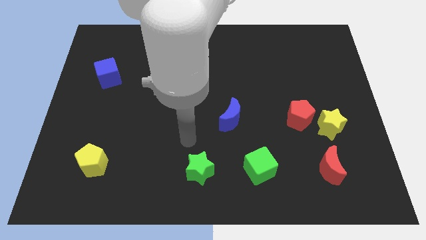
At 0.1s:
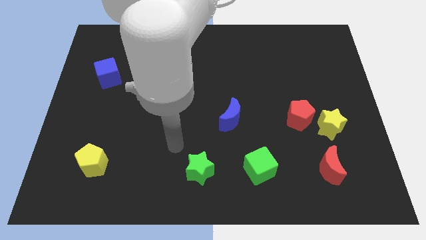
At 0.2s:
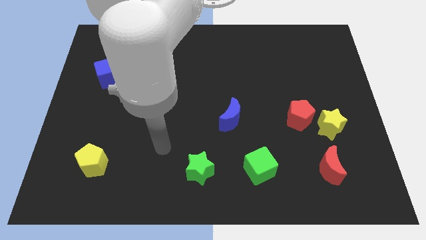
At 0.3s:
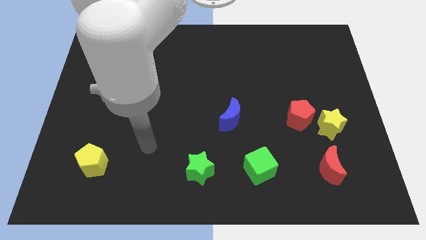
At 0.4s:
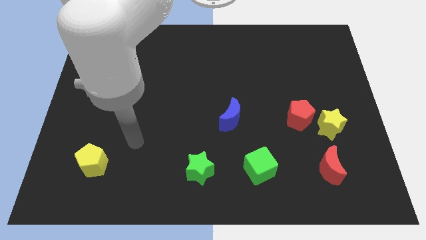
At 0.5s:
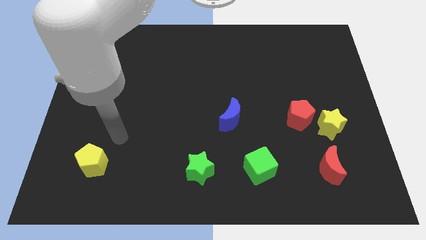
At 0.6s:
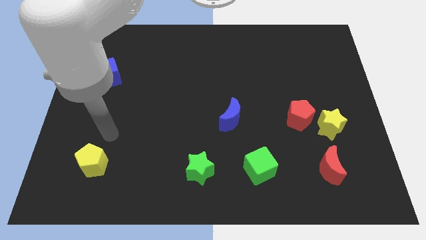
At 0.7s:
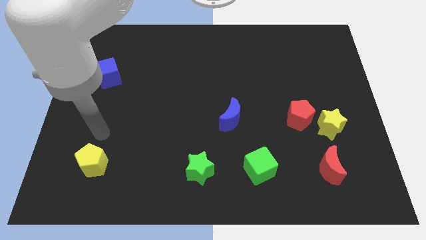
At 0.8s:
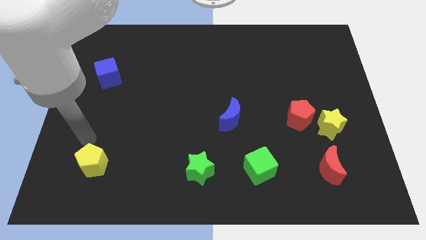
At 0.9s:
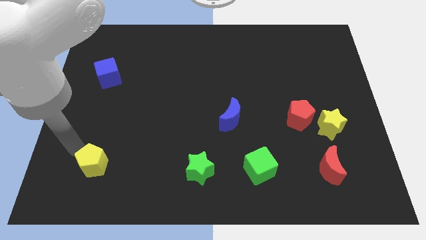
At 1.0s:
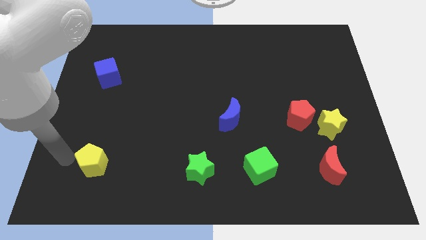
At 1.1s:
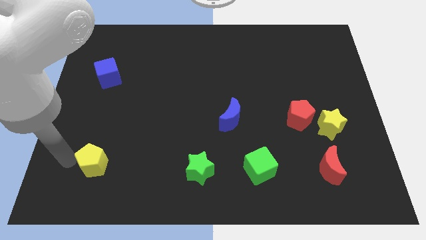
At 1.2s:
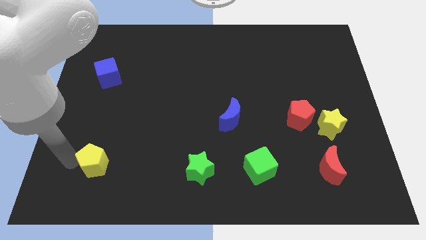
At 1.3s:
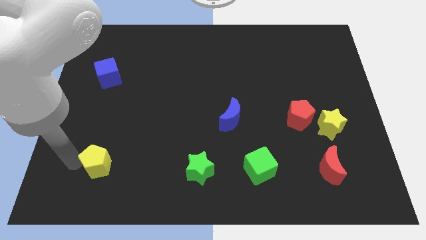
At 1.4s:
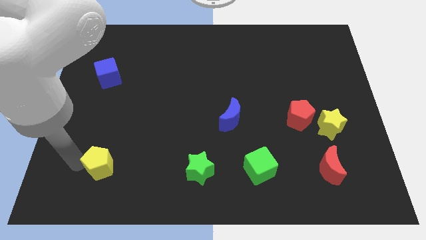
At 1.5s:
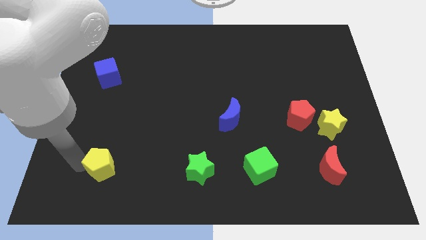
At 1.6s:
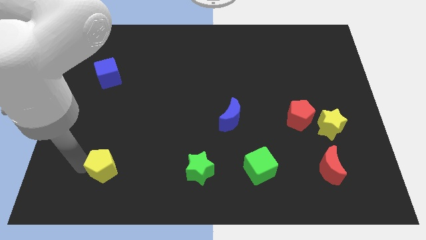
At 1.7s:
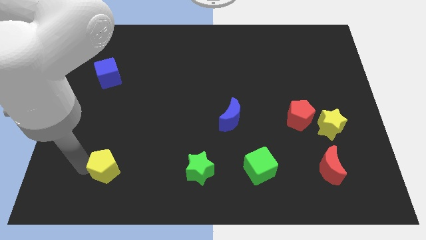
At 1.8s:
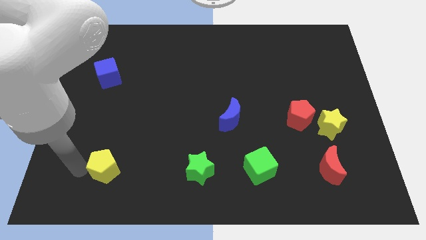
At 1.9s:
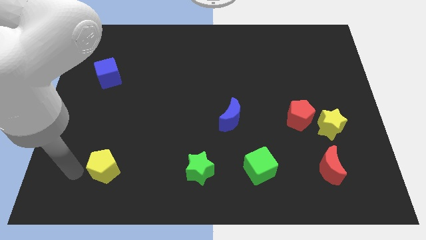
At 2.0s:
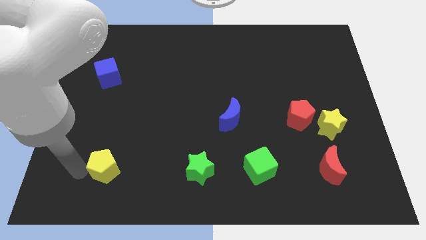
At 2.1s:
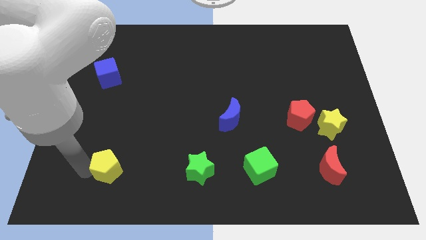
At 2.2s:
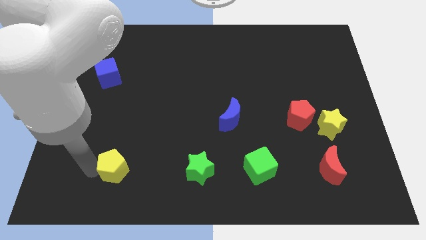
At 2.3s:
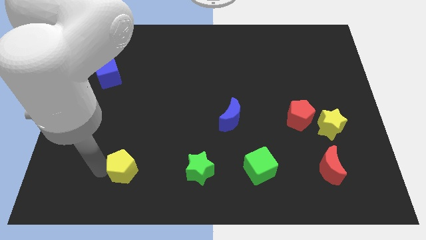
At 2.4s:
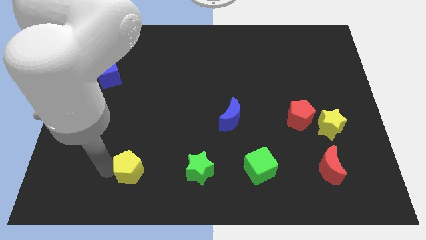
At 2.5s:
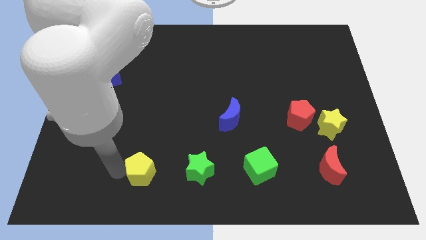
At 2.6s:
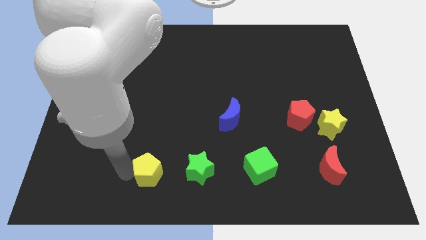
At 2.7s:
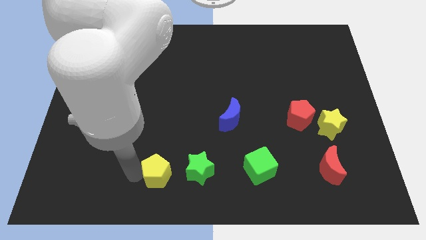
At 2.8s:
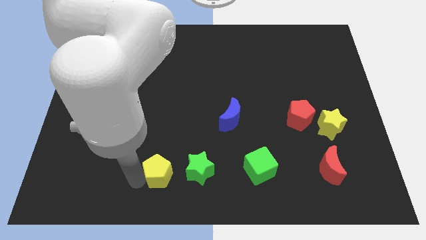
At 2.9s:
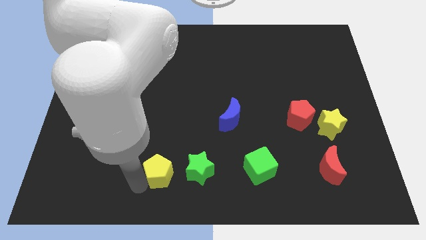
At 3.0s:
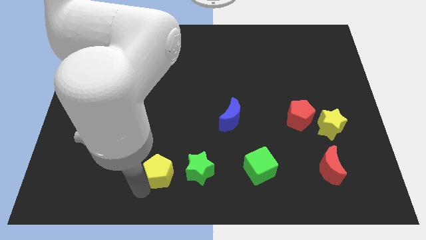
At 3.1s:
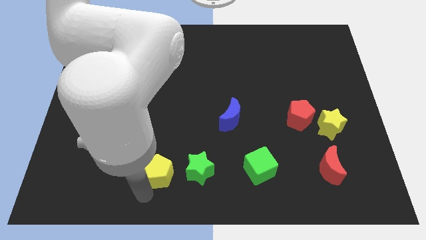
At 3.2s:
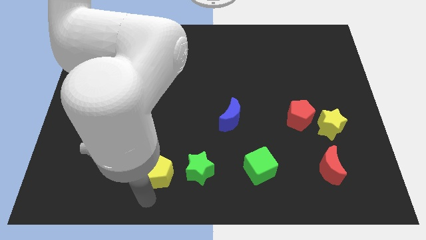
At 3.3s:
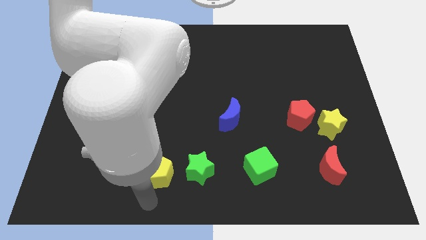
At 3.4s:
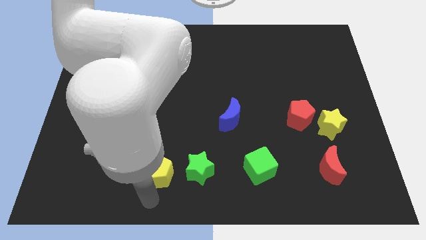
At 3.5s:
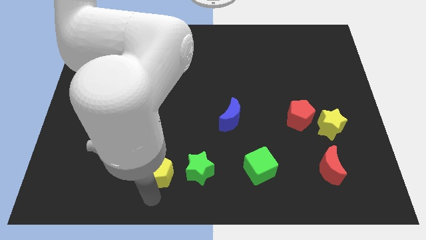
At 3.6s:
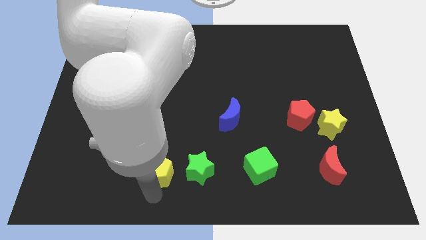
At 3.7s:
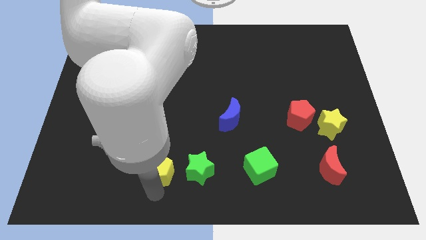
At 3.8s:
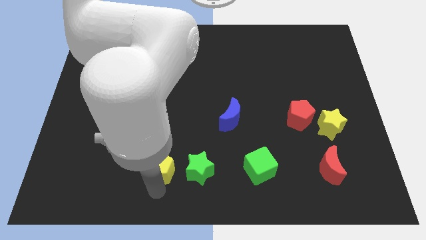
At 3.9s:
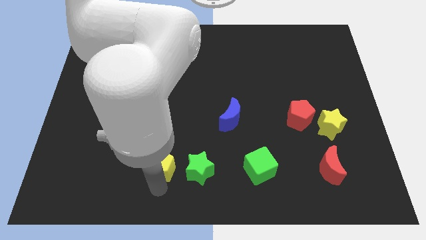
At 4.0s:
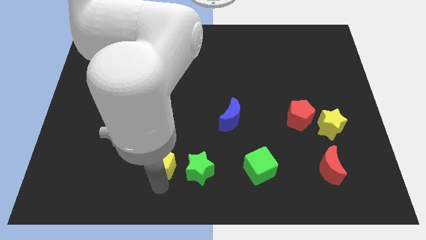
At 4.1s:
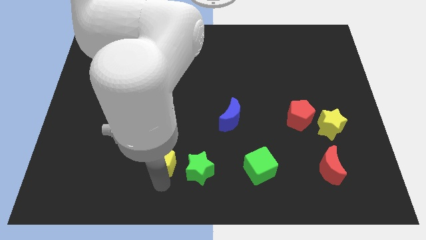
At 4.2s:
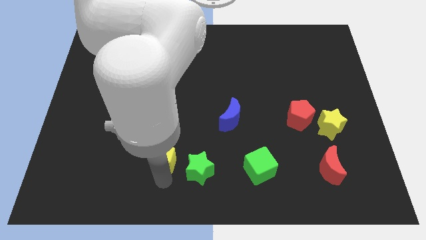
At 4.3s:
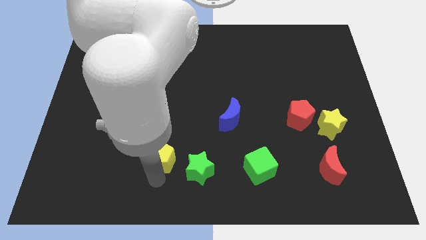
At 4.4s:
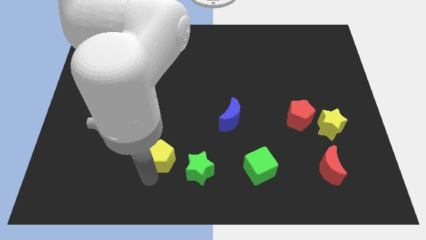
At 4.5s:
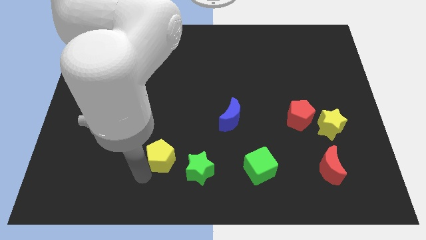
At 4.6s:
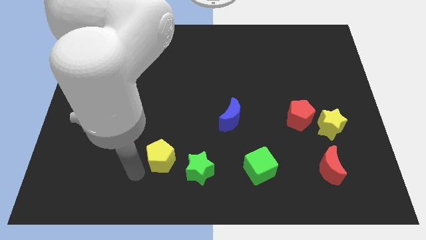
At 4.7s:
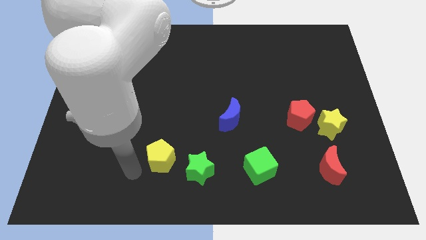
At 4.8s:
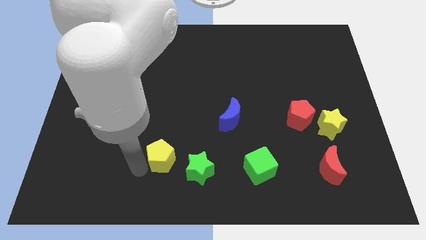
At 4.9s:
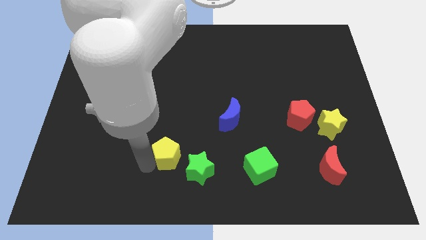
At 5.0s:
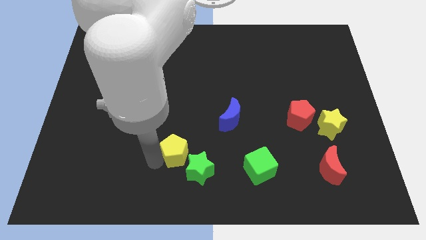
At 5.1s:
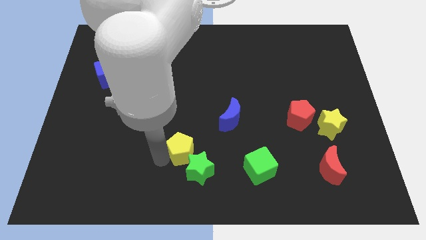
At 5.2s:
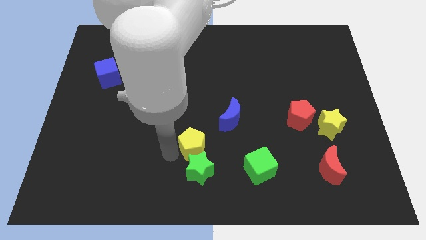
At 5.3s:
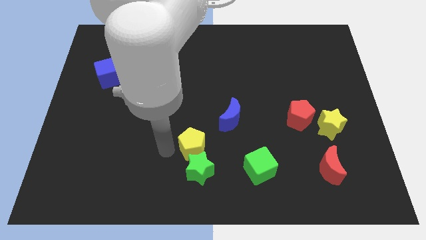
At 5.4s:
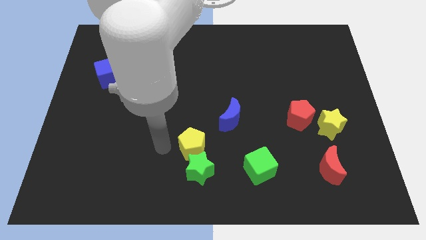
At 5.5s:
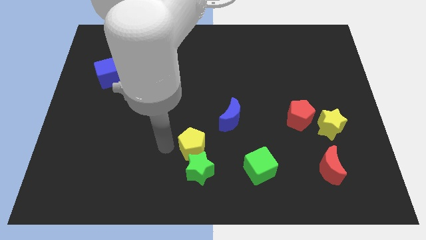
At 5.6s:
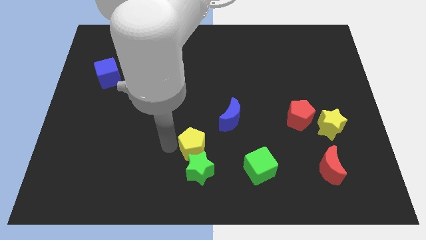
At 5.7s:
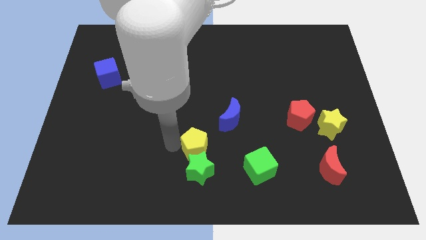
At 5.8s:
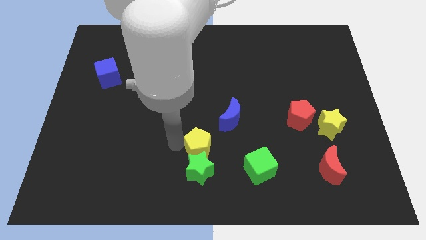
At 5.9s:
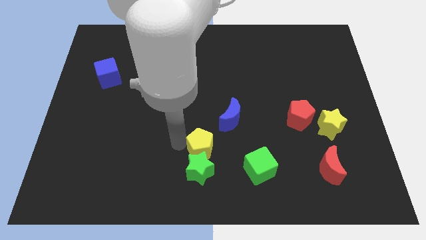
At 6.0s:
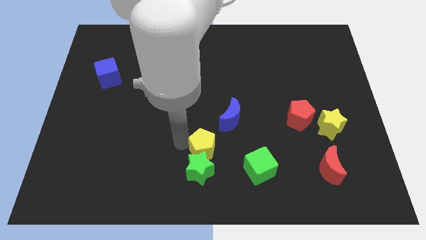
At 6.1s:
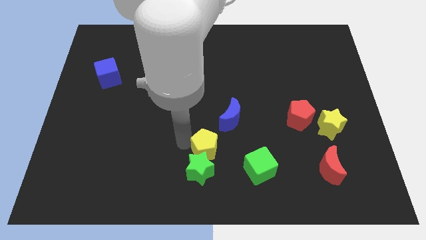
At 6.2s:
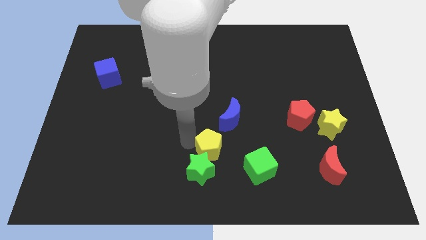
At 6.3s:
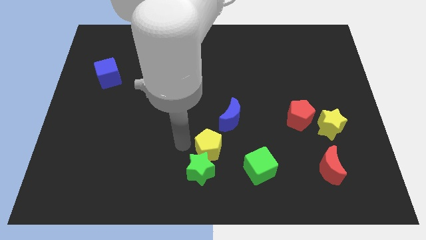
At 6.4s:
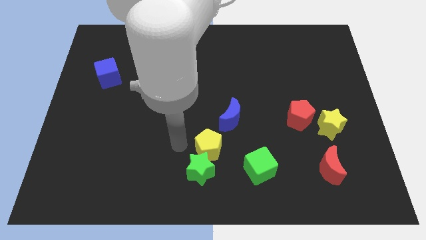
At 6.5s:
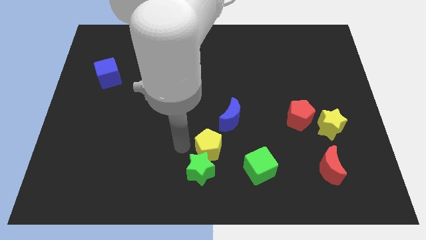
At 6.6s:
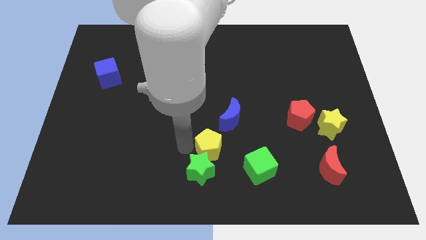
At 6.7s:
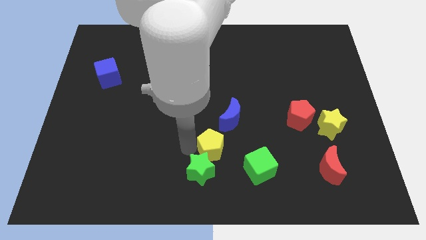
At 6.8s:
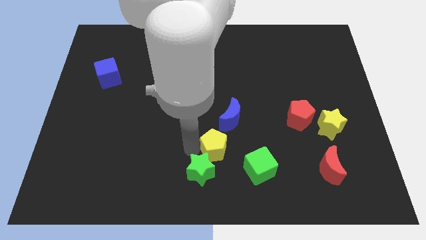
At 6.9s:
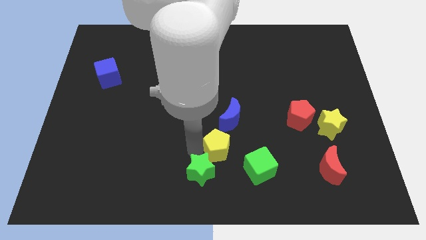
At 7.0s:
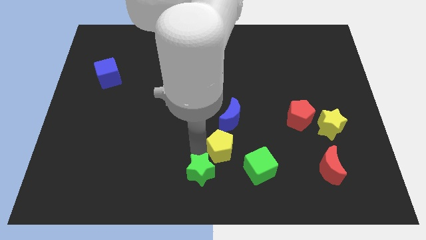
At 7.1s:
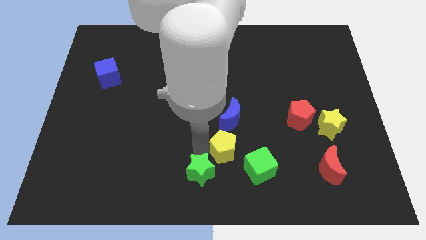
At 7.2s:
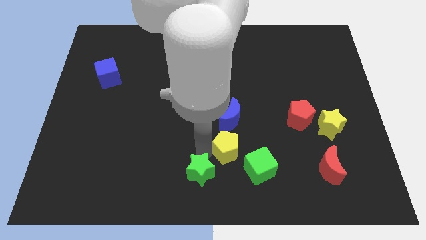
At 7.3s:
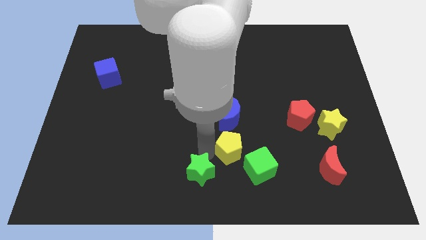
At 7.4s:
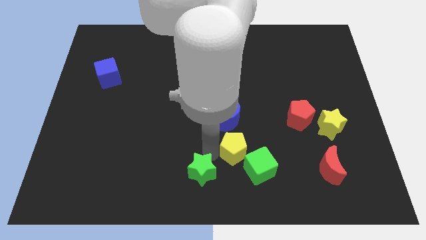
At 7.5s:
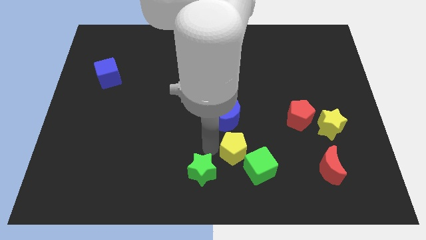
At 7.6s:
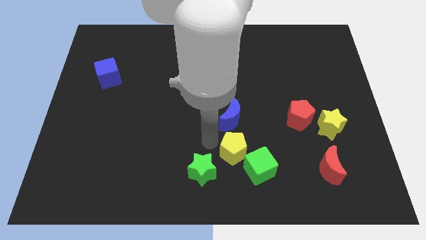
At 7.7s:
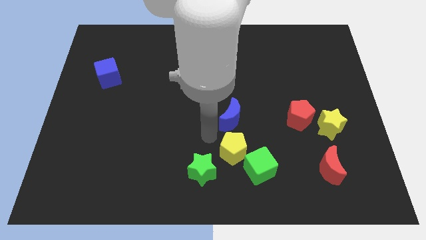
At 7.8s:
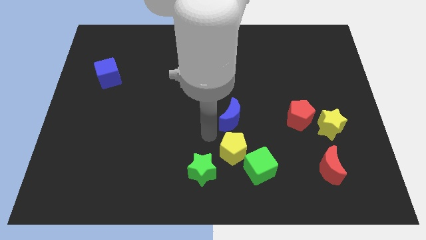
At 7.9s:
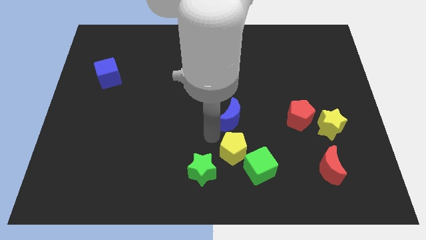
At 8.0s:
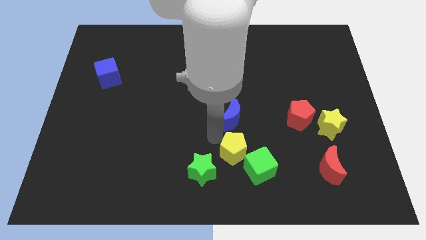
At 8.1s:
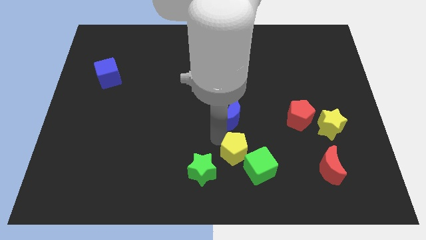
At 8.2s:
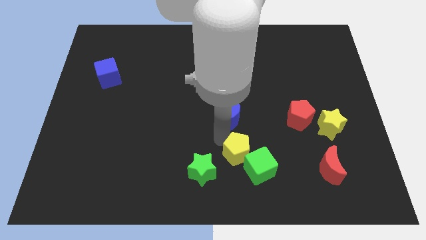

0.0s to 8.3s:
slide the yellow pentagon to the green cube
